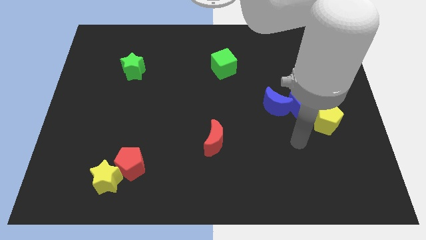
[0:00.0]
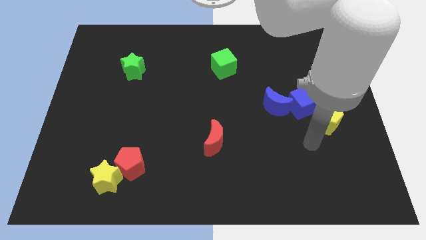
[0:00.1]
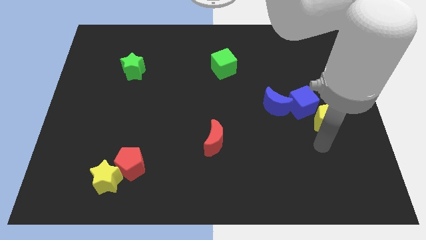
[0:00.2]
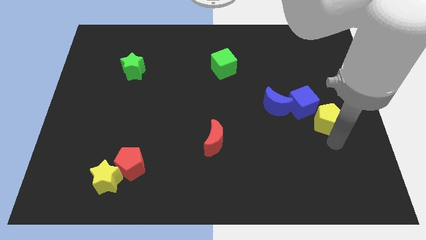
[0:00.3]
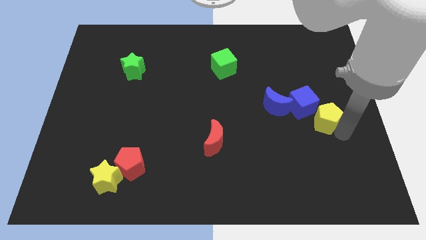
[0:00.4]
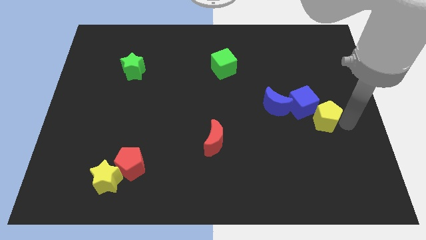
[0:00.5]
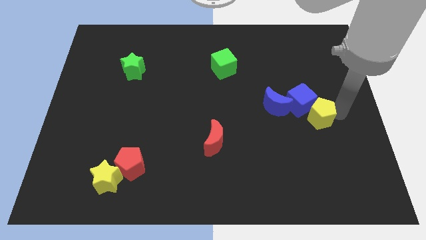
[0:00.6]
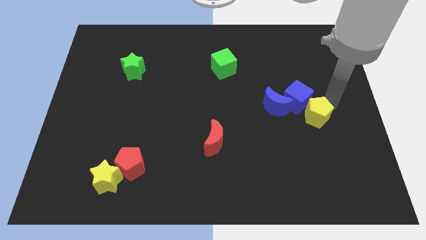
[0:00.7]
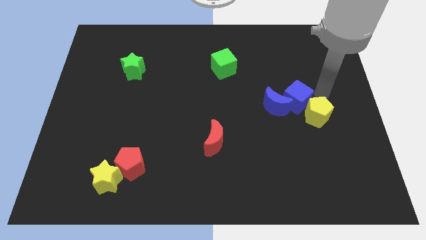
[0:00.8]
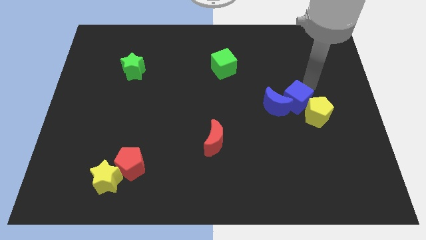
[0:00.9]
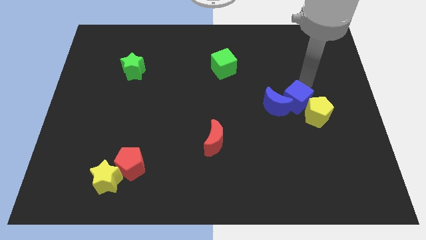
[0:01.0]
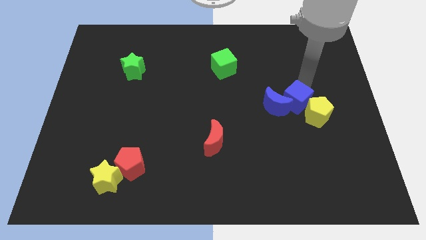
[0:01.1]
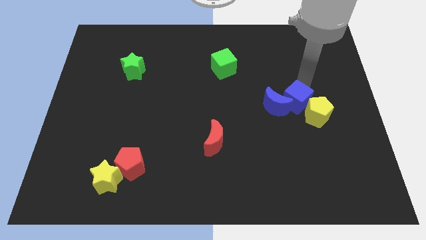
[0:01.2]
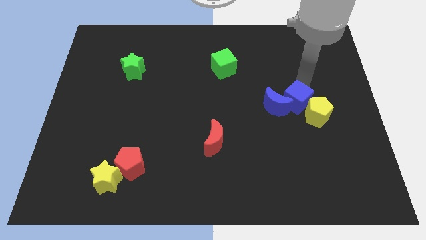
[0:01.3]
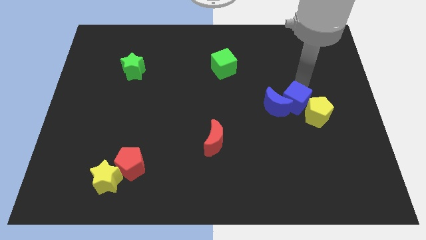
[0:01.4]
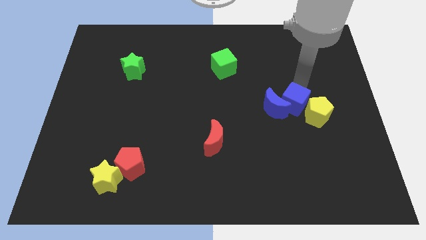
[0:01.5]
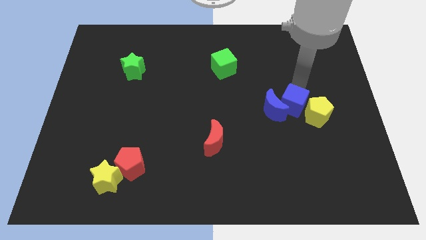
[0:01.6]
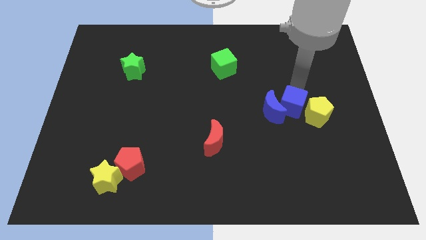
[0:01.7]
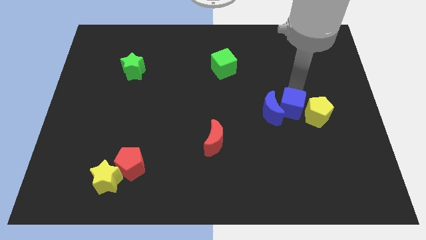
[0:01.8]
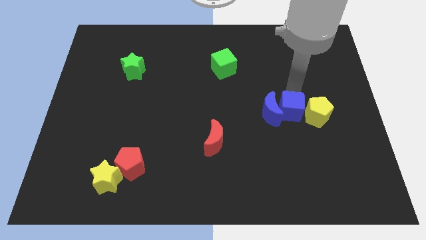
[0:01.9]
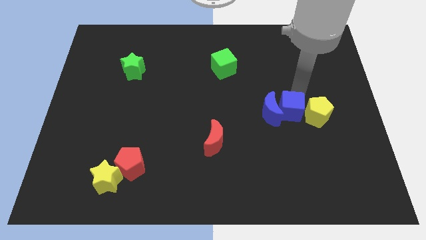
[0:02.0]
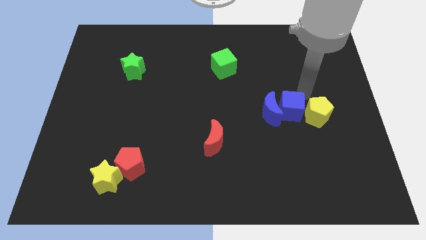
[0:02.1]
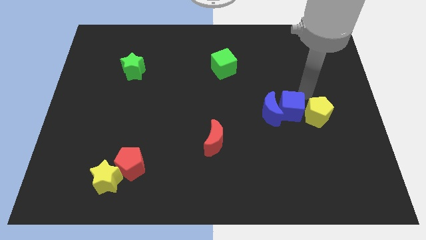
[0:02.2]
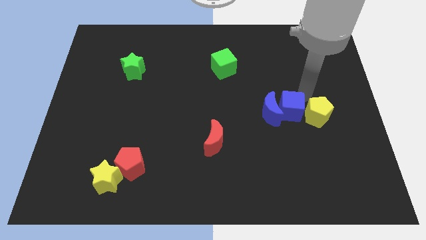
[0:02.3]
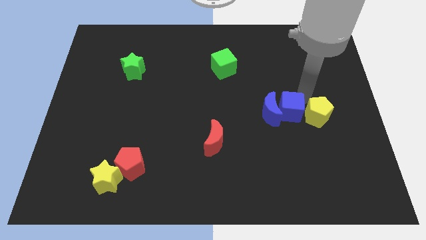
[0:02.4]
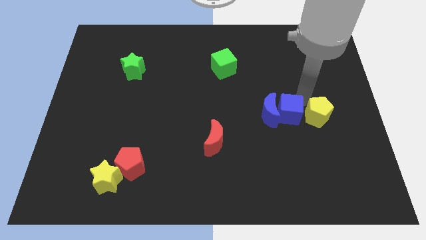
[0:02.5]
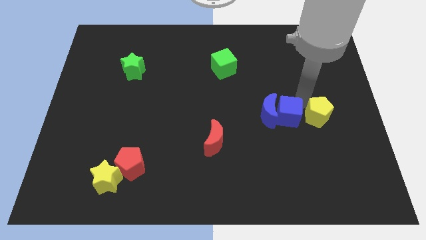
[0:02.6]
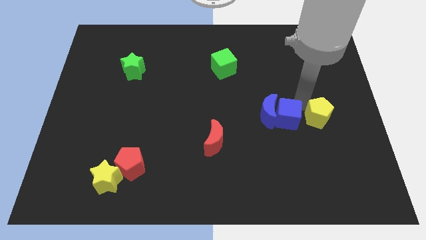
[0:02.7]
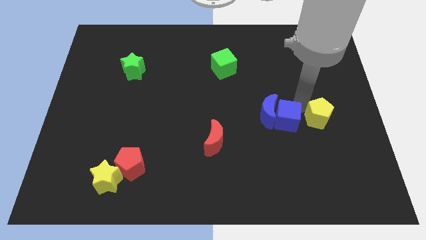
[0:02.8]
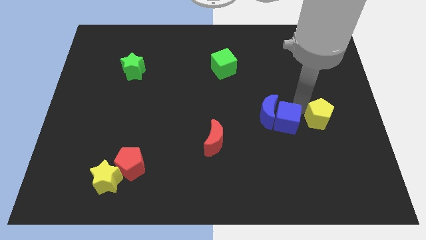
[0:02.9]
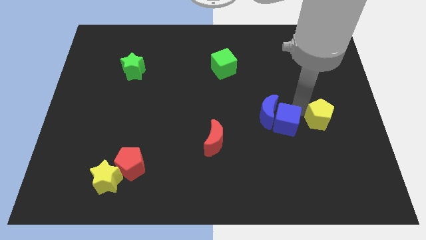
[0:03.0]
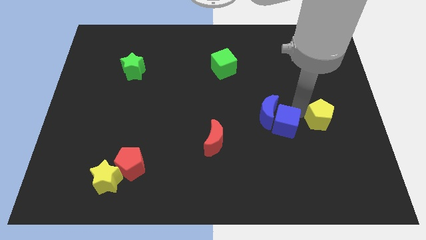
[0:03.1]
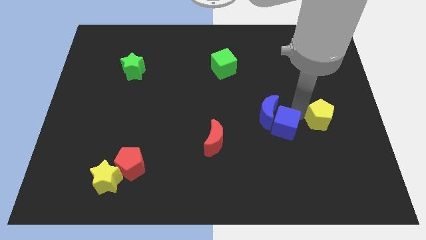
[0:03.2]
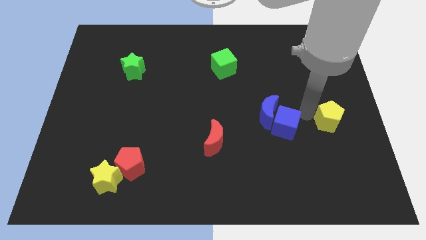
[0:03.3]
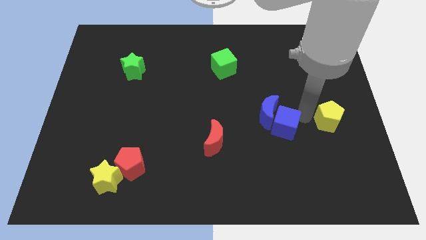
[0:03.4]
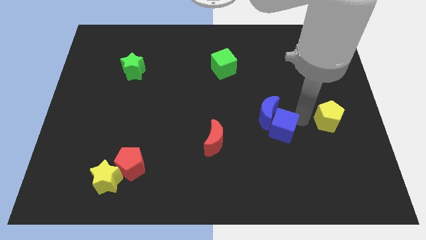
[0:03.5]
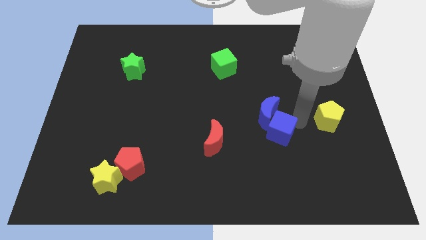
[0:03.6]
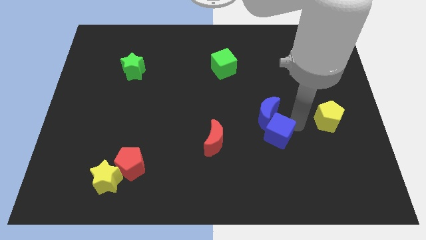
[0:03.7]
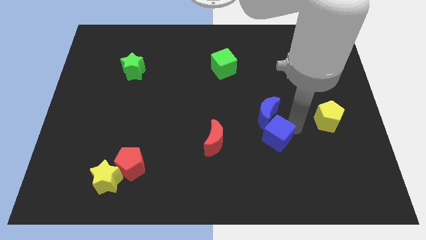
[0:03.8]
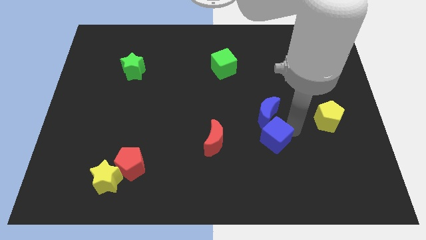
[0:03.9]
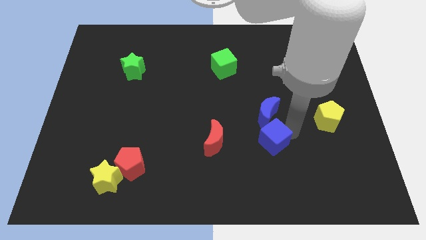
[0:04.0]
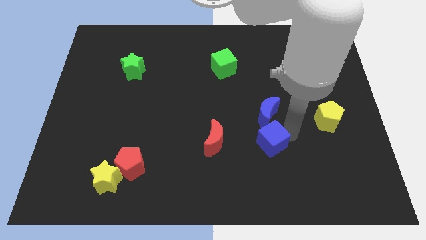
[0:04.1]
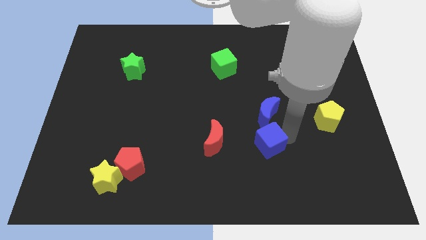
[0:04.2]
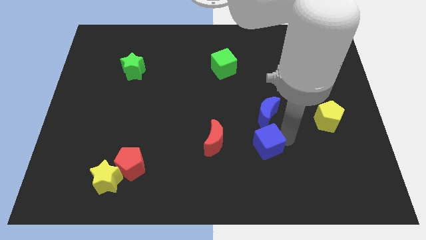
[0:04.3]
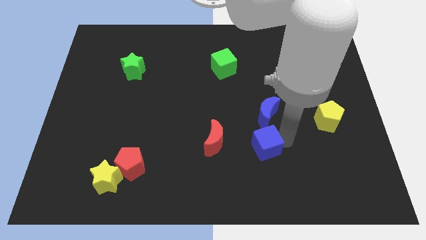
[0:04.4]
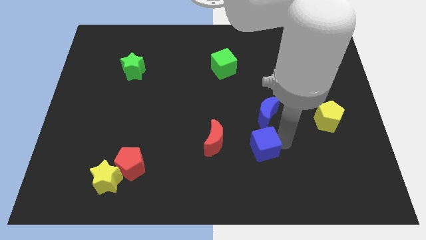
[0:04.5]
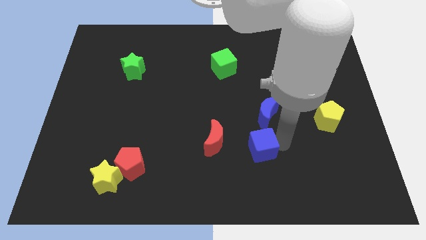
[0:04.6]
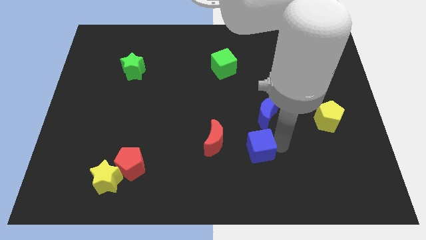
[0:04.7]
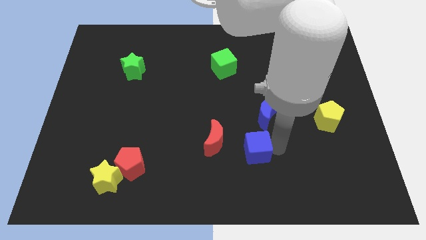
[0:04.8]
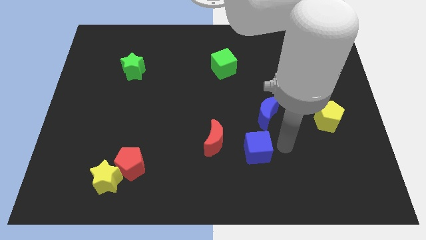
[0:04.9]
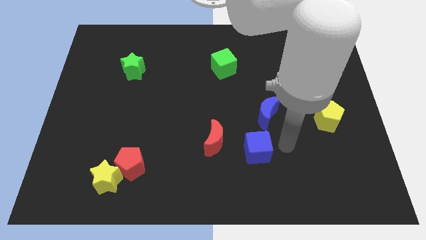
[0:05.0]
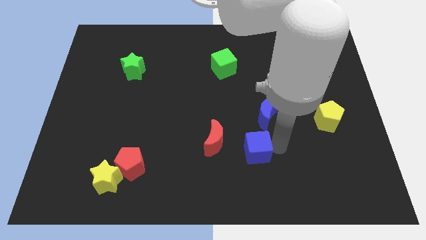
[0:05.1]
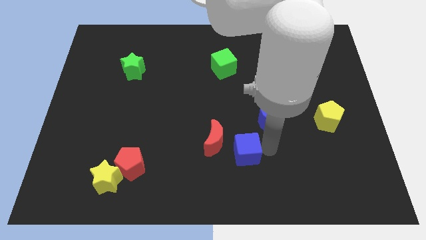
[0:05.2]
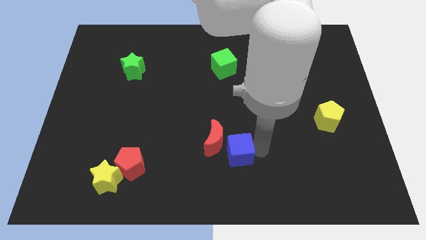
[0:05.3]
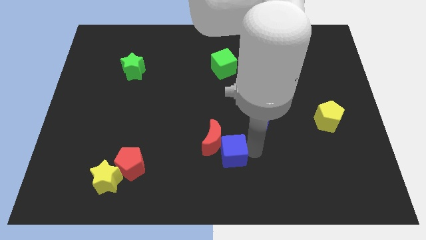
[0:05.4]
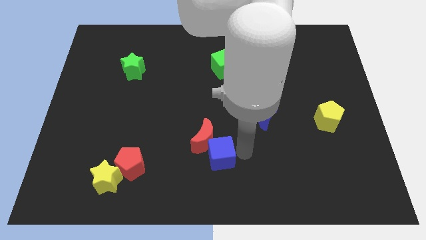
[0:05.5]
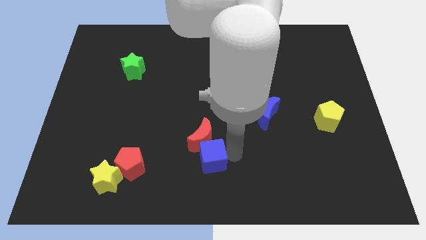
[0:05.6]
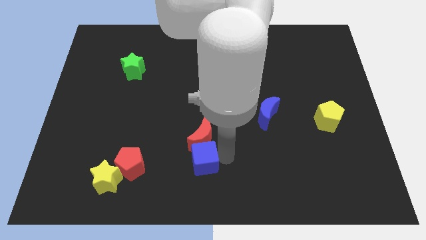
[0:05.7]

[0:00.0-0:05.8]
push the blue cube diagonally down and to the left of the red moon

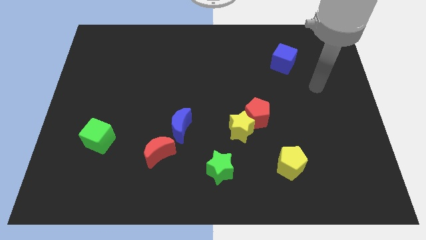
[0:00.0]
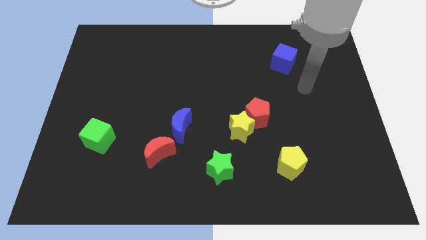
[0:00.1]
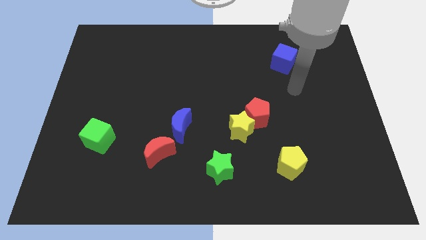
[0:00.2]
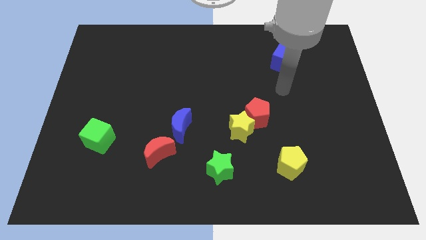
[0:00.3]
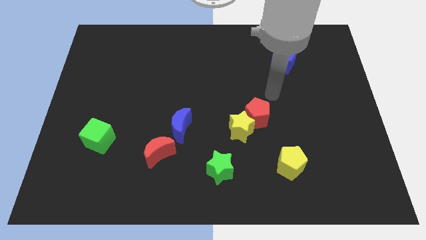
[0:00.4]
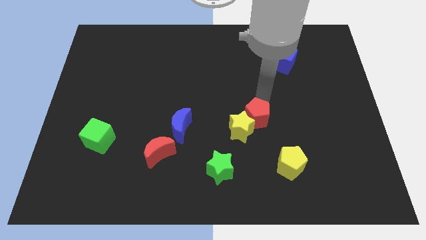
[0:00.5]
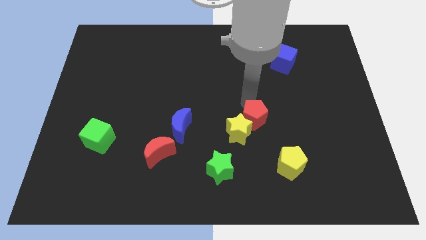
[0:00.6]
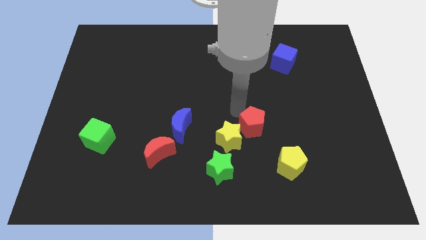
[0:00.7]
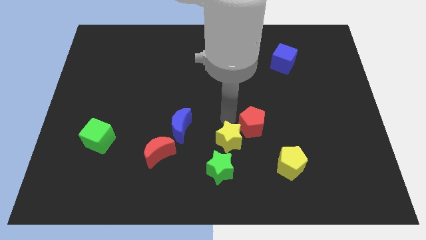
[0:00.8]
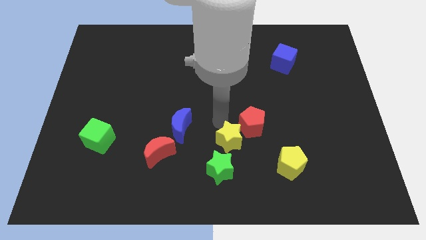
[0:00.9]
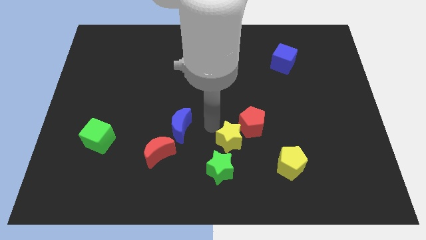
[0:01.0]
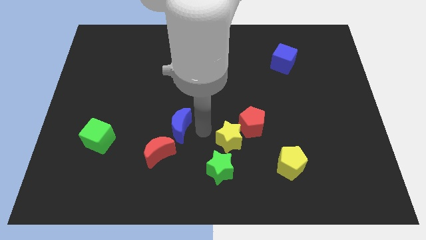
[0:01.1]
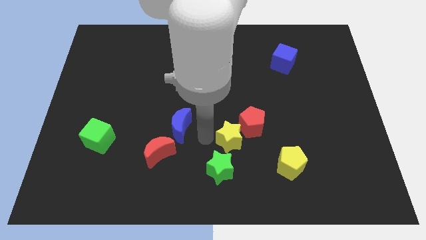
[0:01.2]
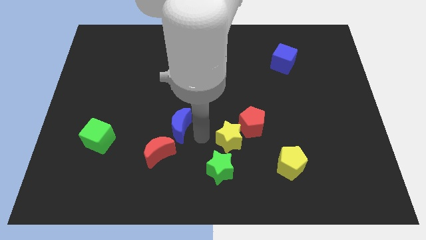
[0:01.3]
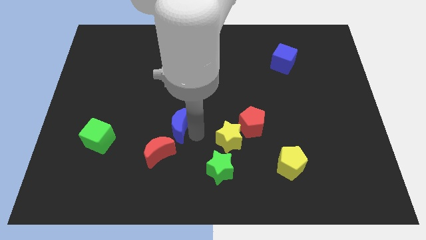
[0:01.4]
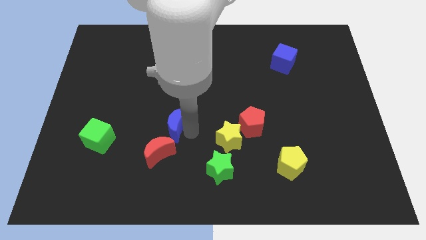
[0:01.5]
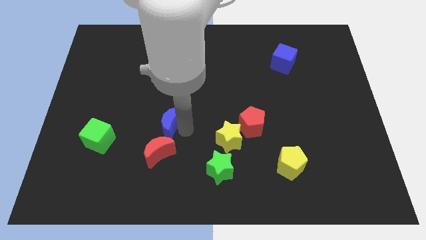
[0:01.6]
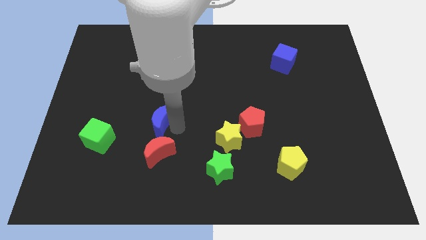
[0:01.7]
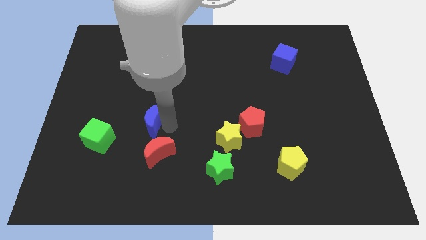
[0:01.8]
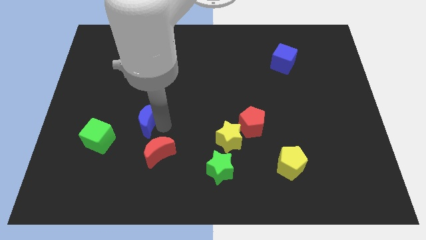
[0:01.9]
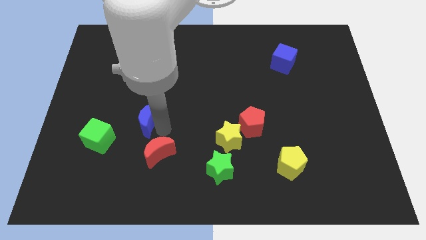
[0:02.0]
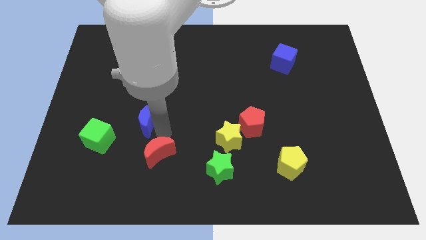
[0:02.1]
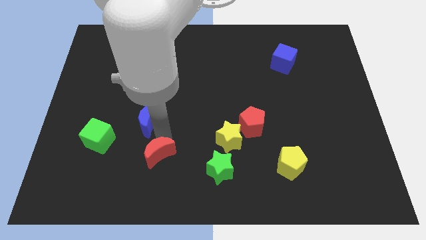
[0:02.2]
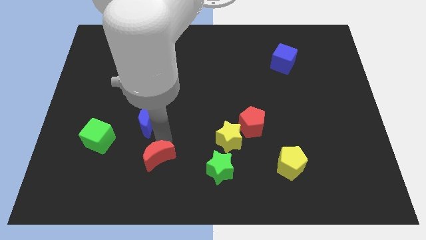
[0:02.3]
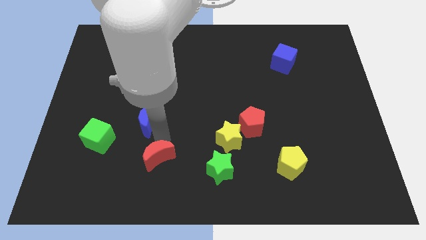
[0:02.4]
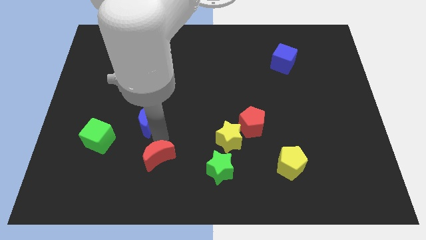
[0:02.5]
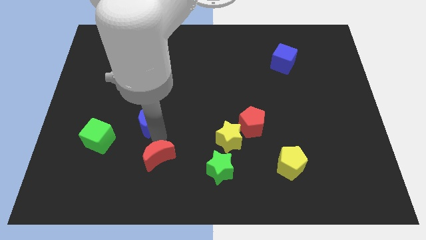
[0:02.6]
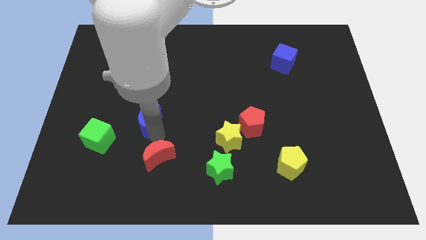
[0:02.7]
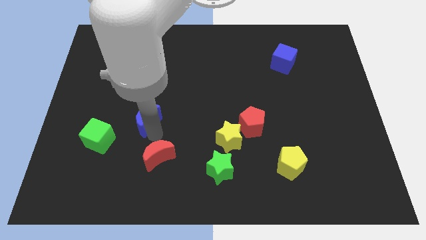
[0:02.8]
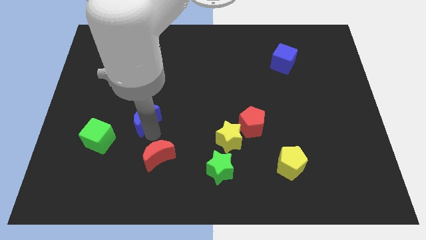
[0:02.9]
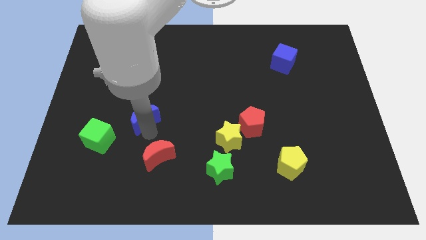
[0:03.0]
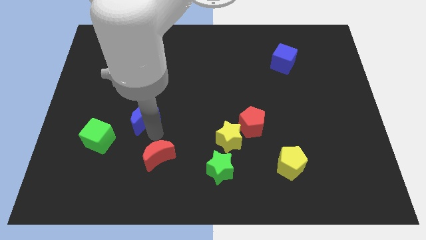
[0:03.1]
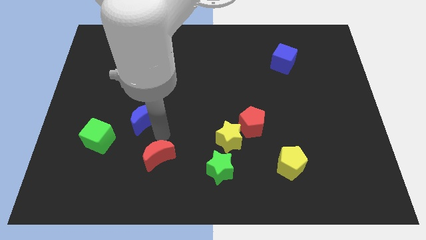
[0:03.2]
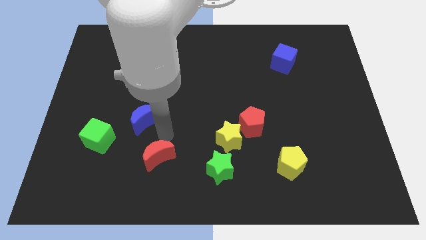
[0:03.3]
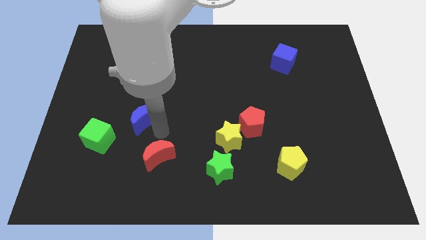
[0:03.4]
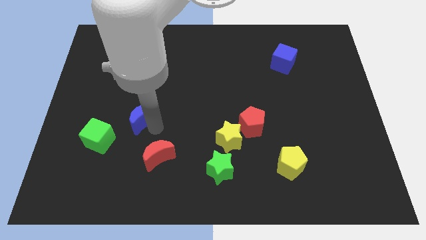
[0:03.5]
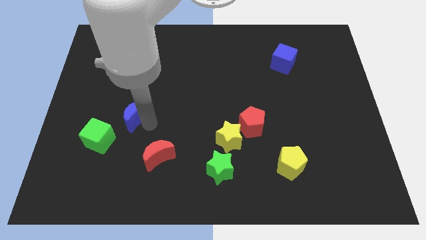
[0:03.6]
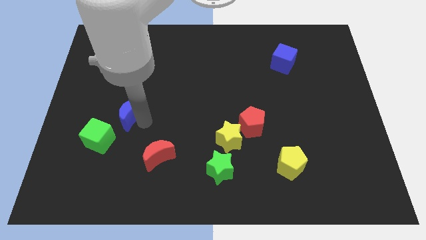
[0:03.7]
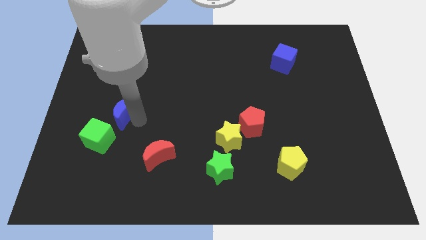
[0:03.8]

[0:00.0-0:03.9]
move the blue moon to the top of the green cube
